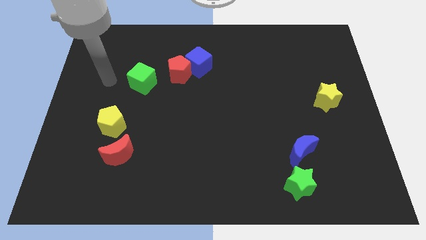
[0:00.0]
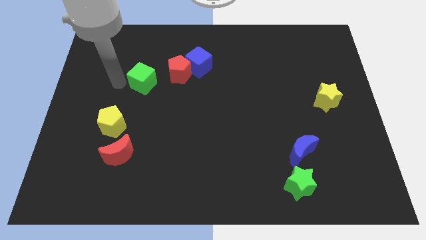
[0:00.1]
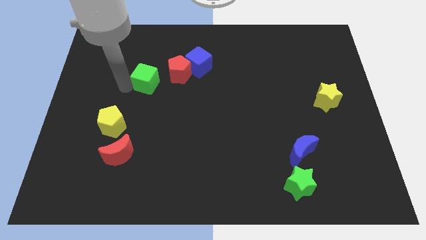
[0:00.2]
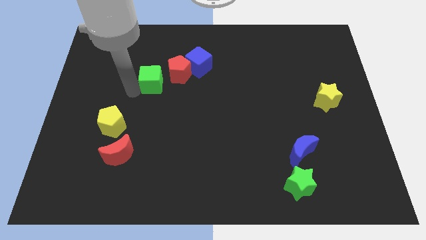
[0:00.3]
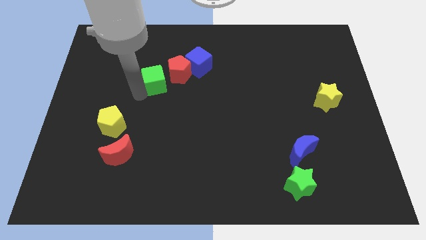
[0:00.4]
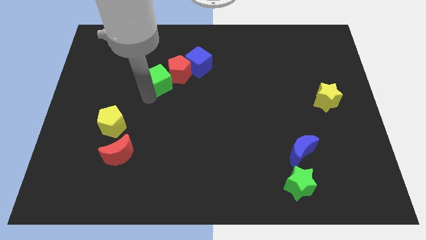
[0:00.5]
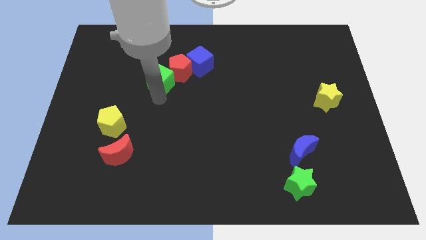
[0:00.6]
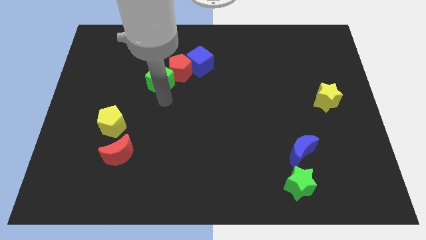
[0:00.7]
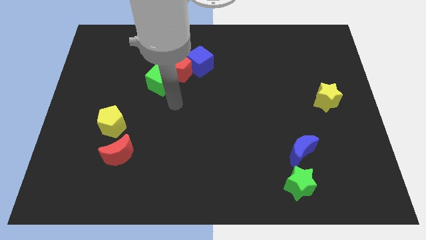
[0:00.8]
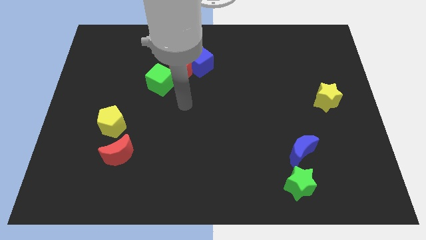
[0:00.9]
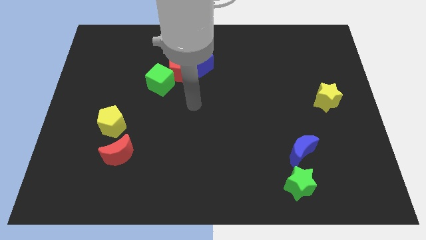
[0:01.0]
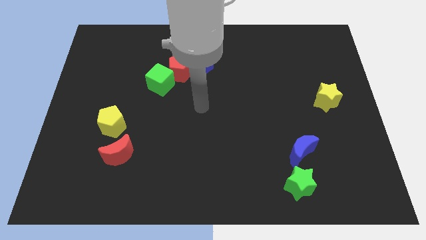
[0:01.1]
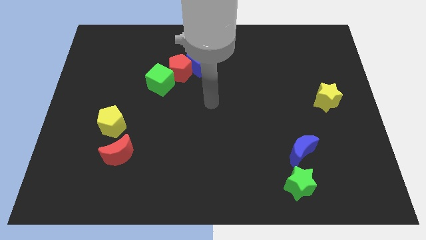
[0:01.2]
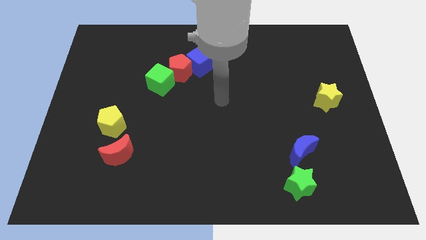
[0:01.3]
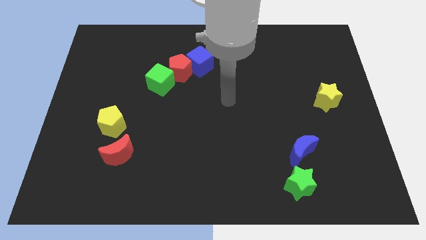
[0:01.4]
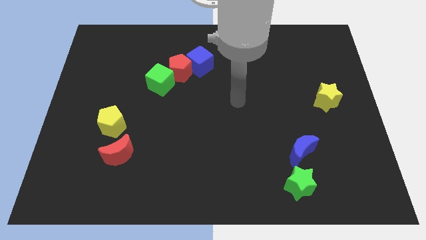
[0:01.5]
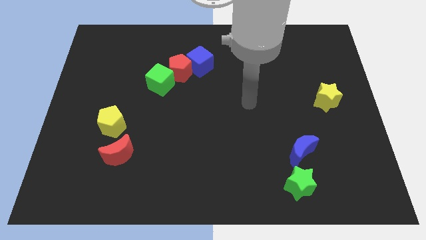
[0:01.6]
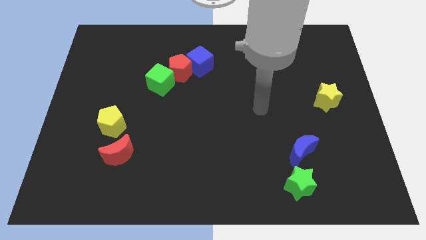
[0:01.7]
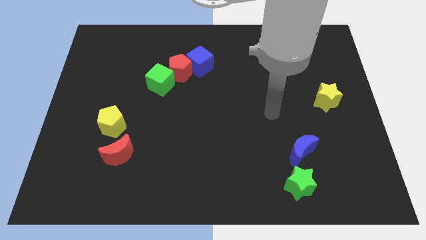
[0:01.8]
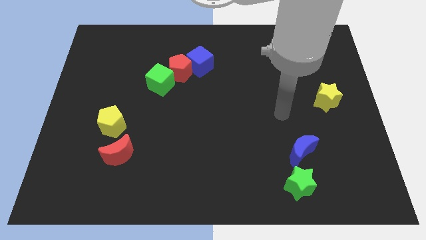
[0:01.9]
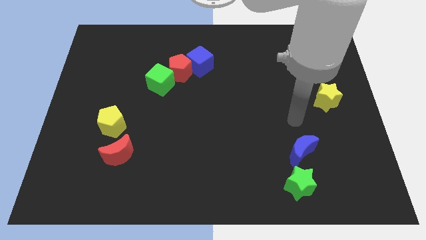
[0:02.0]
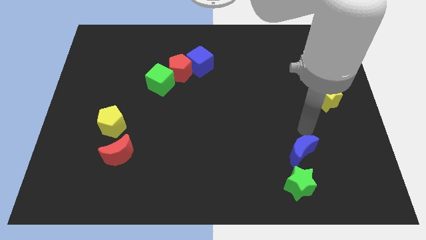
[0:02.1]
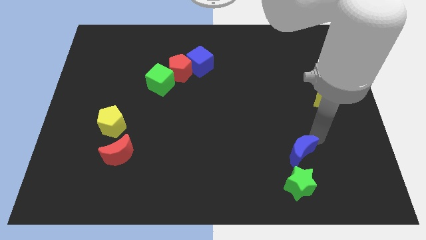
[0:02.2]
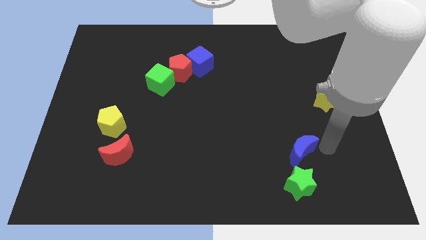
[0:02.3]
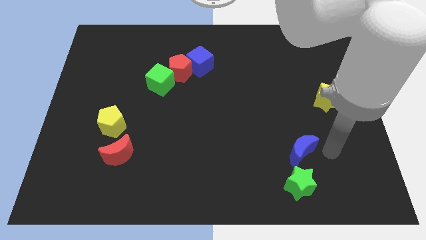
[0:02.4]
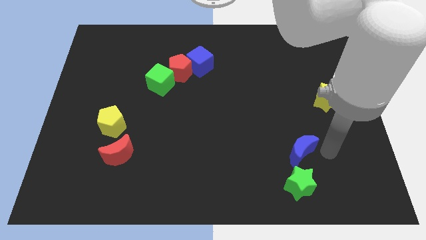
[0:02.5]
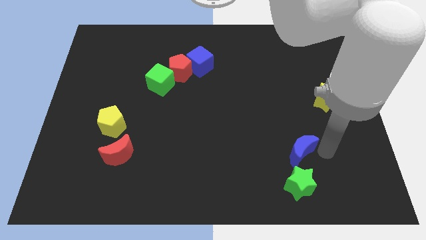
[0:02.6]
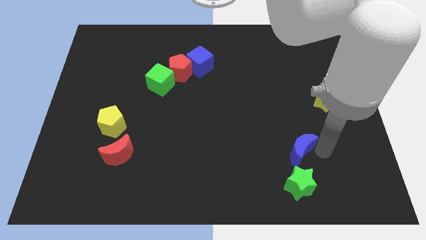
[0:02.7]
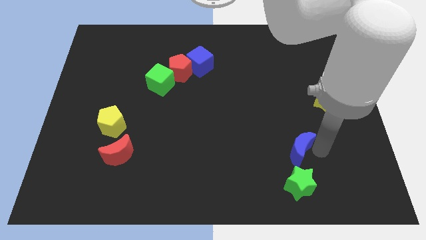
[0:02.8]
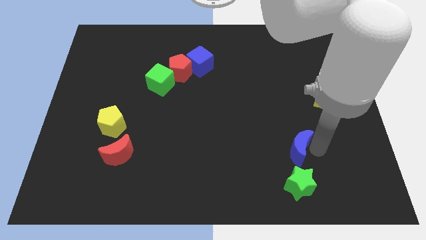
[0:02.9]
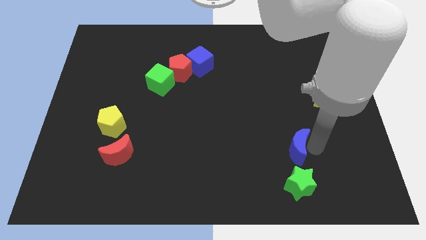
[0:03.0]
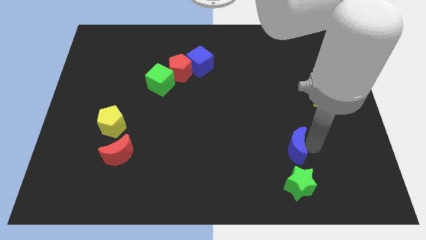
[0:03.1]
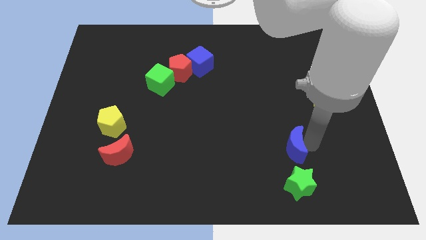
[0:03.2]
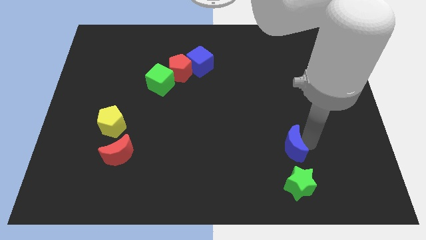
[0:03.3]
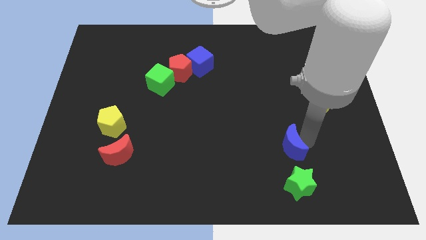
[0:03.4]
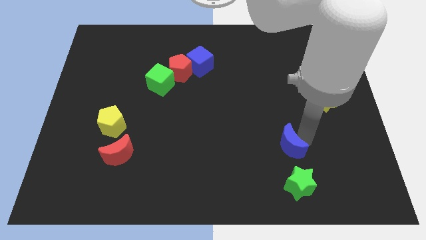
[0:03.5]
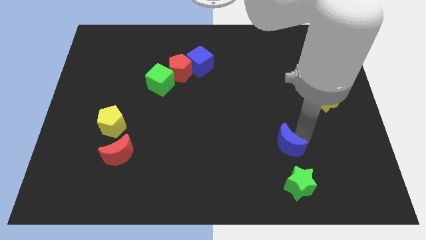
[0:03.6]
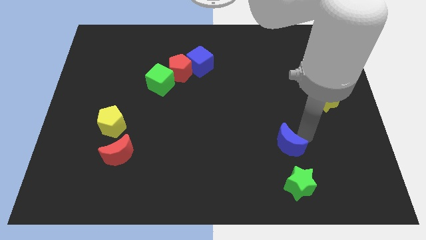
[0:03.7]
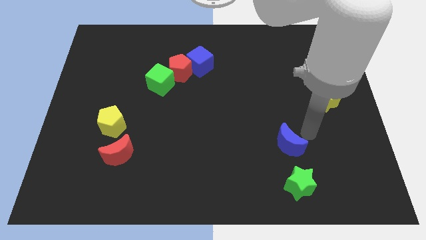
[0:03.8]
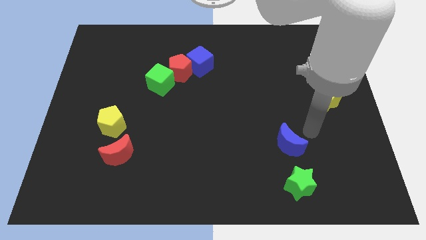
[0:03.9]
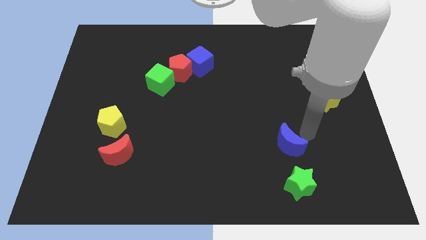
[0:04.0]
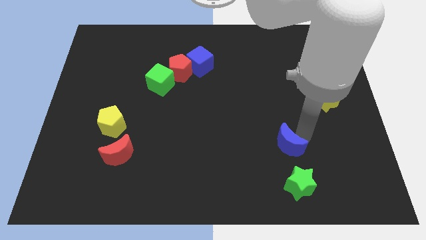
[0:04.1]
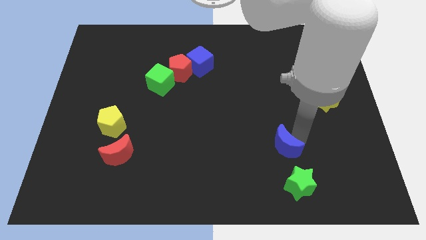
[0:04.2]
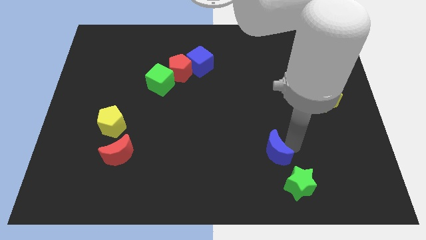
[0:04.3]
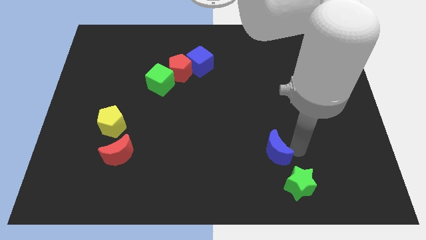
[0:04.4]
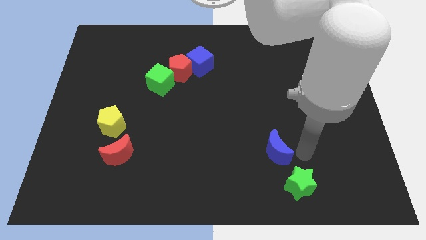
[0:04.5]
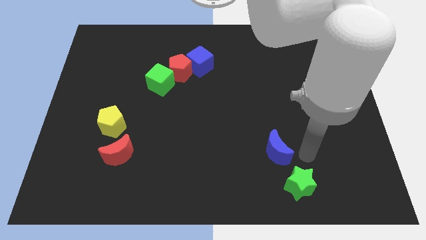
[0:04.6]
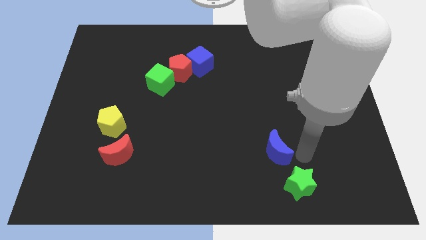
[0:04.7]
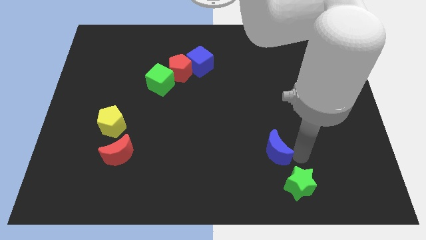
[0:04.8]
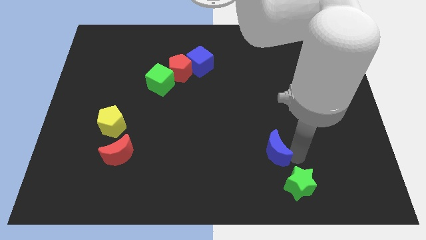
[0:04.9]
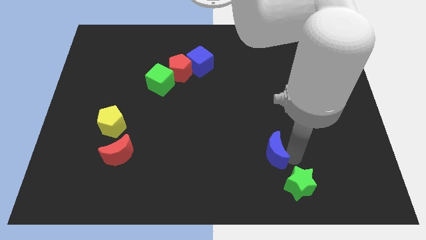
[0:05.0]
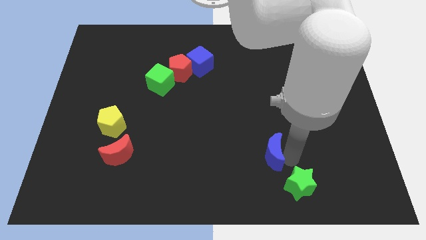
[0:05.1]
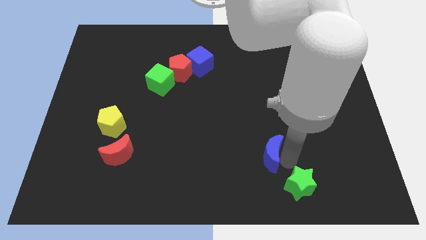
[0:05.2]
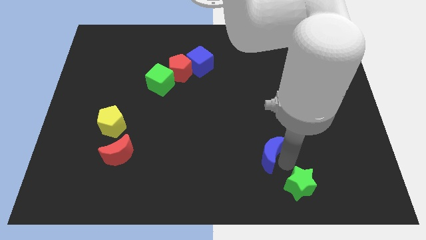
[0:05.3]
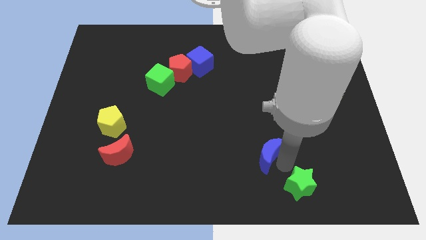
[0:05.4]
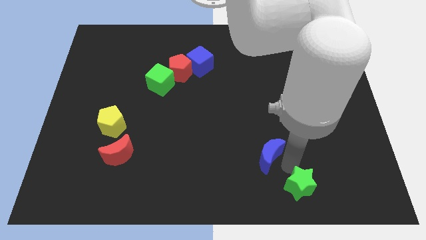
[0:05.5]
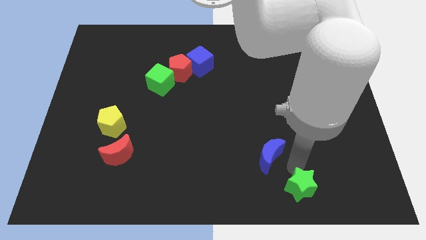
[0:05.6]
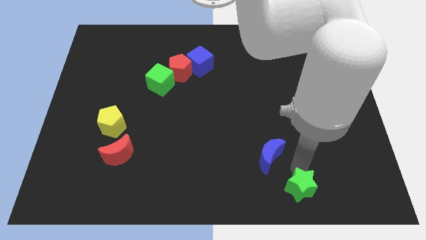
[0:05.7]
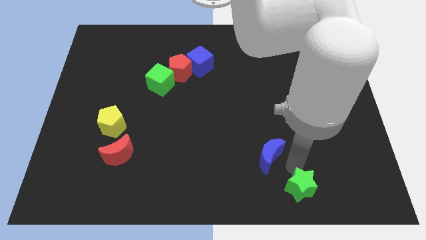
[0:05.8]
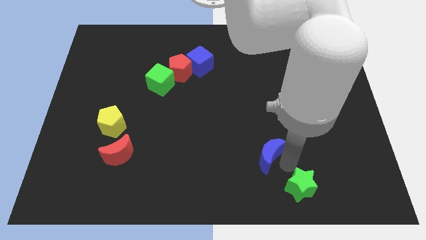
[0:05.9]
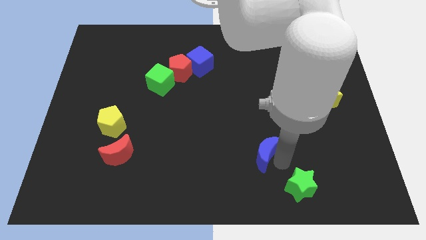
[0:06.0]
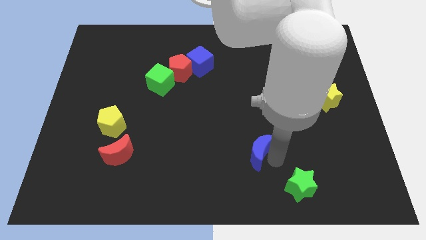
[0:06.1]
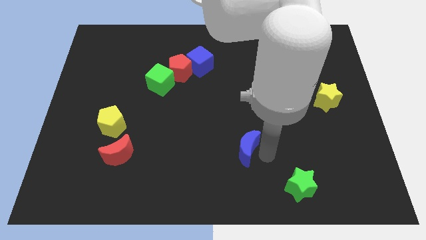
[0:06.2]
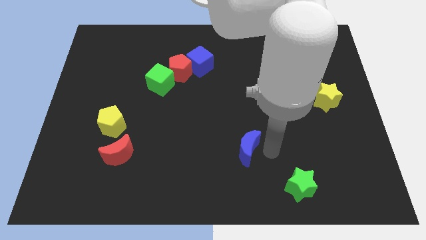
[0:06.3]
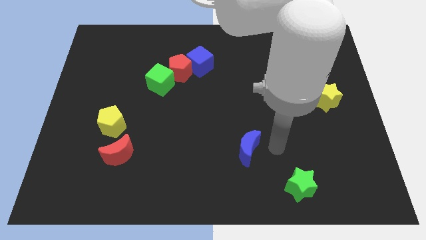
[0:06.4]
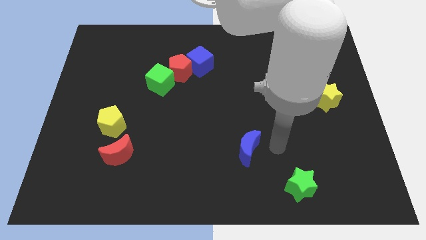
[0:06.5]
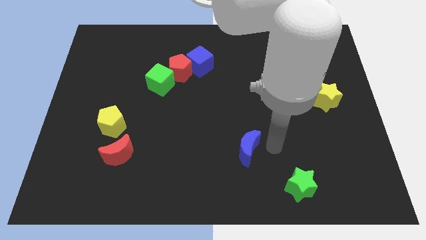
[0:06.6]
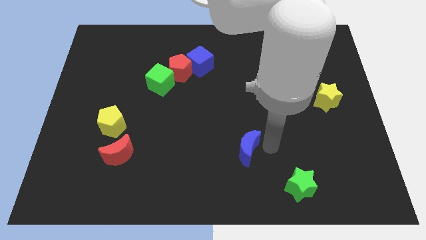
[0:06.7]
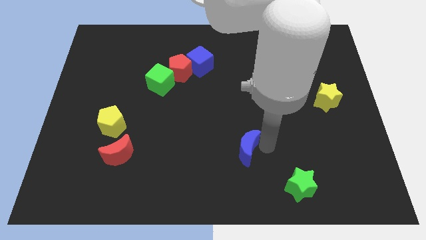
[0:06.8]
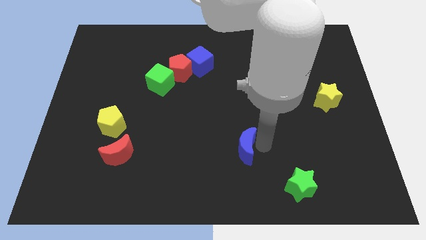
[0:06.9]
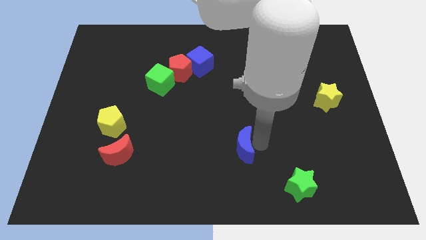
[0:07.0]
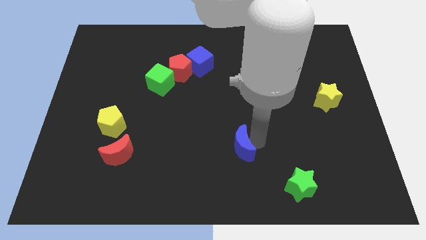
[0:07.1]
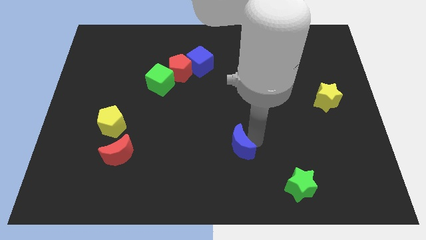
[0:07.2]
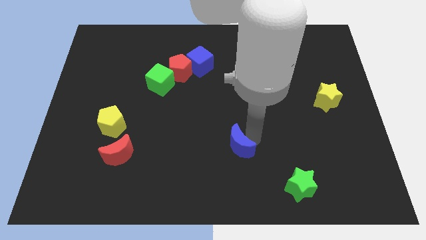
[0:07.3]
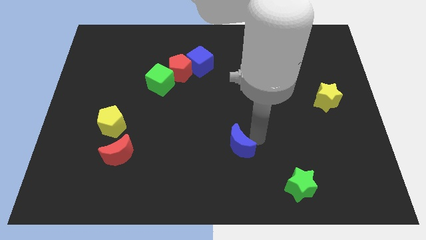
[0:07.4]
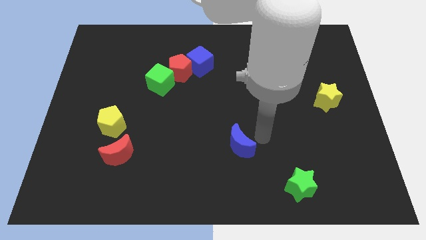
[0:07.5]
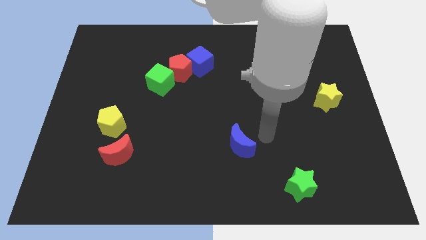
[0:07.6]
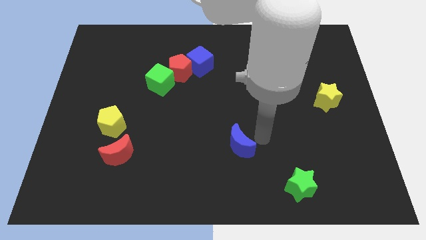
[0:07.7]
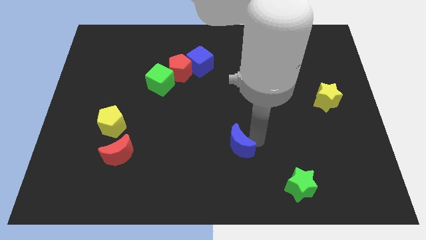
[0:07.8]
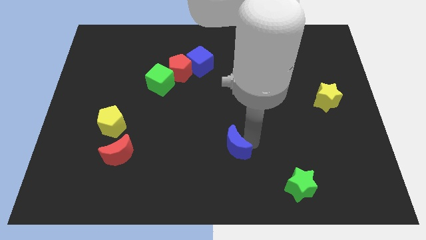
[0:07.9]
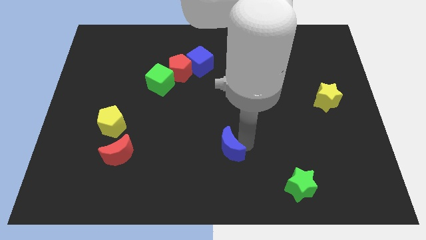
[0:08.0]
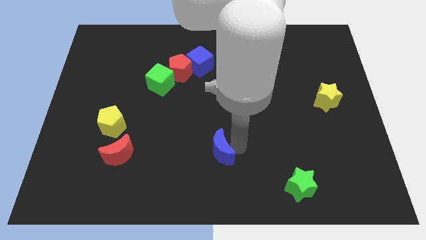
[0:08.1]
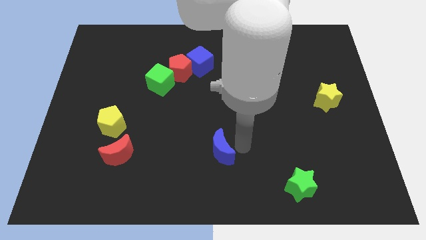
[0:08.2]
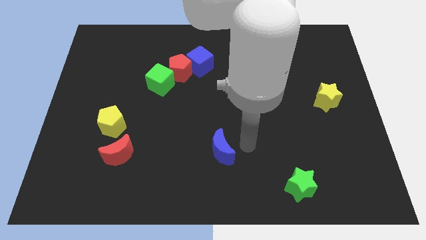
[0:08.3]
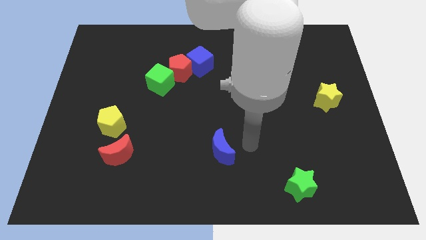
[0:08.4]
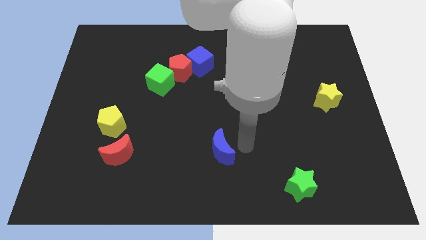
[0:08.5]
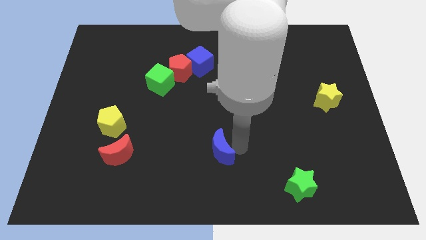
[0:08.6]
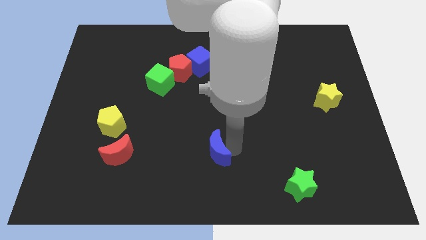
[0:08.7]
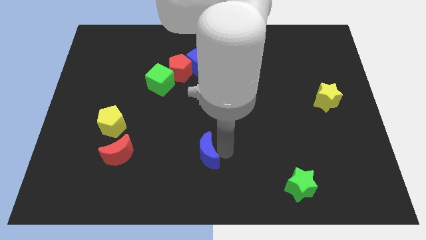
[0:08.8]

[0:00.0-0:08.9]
slide the blue moon to the left

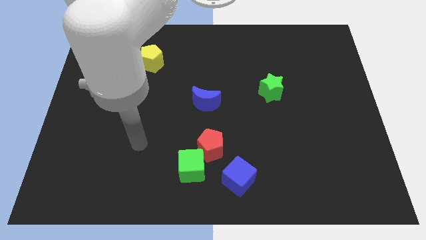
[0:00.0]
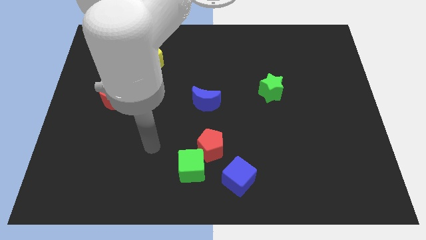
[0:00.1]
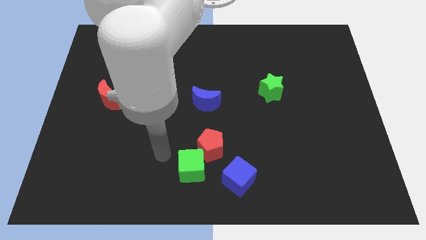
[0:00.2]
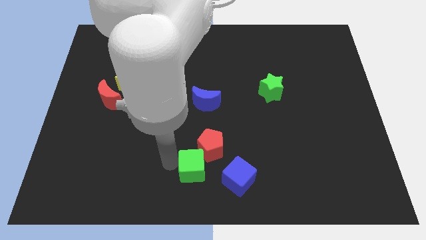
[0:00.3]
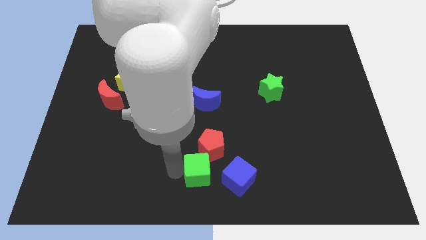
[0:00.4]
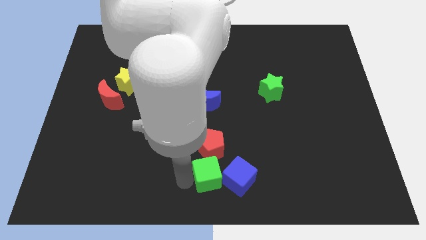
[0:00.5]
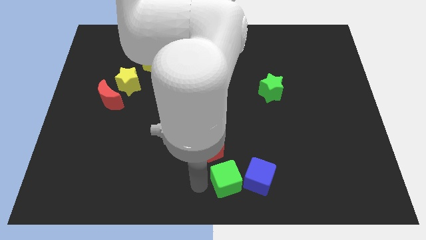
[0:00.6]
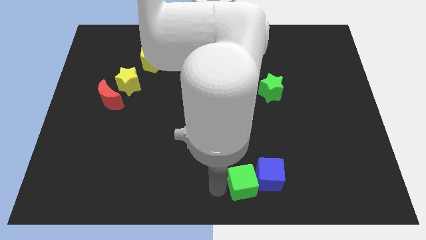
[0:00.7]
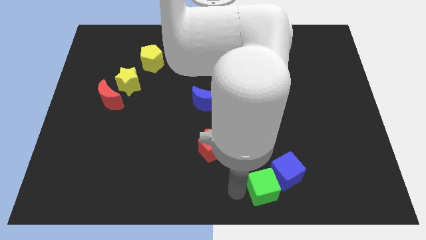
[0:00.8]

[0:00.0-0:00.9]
slightly slide the blue cube right
